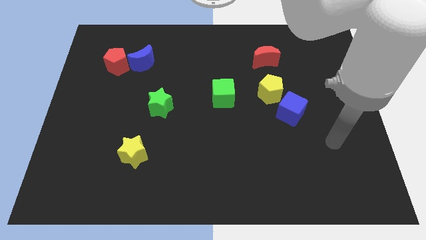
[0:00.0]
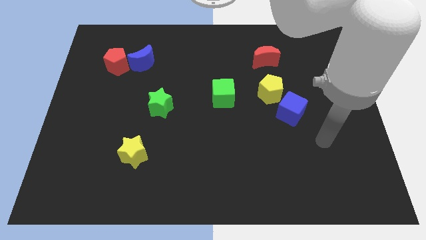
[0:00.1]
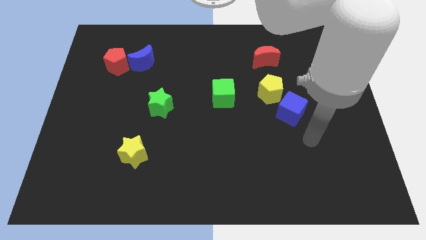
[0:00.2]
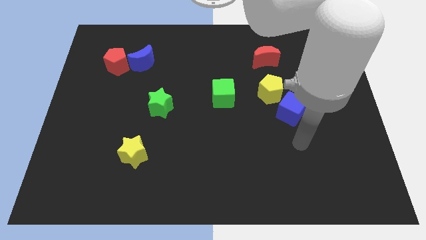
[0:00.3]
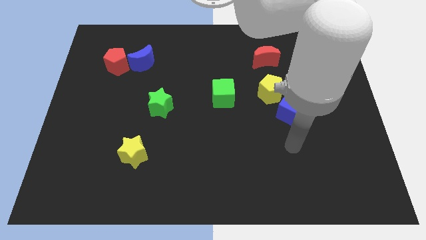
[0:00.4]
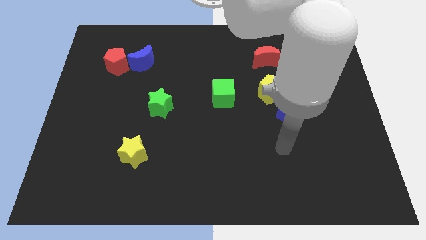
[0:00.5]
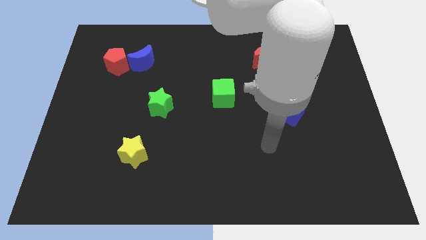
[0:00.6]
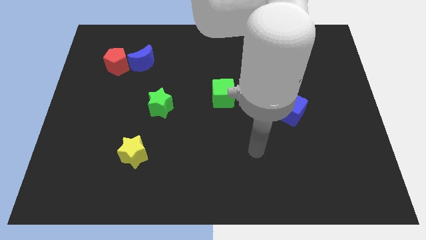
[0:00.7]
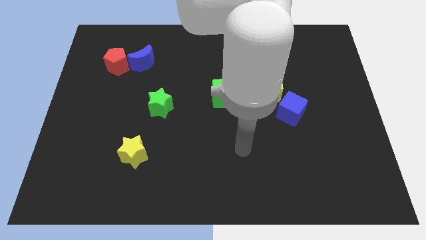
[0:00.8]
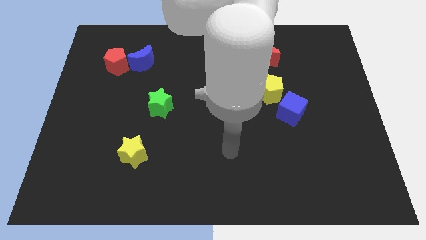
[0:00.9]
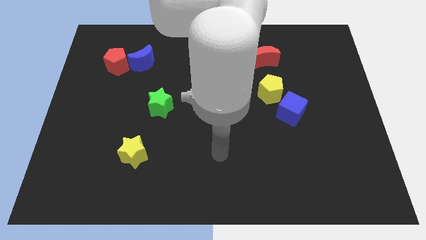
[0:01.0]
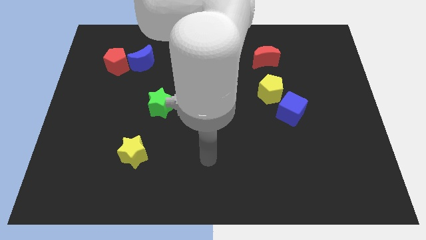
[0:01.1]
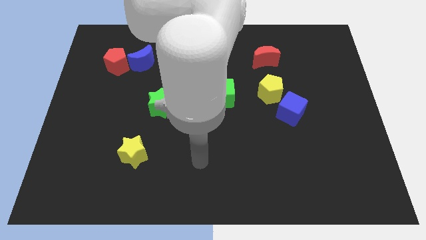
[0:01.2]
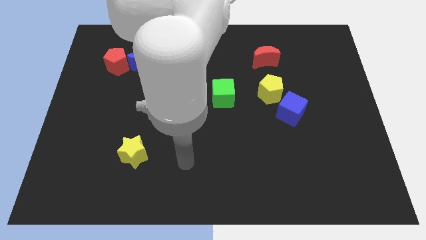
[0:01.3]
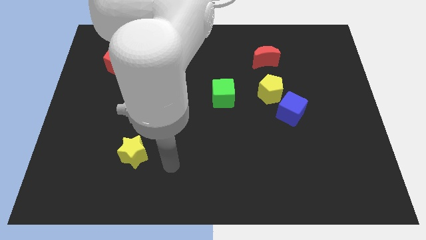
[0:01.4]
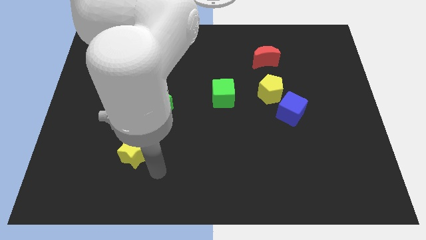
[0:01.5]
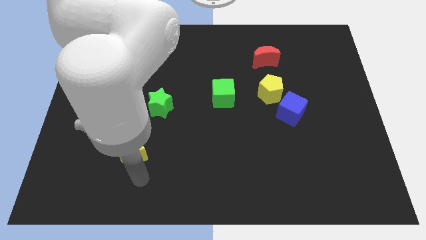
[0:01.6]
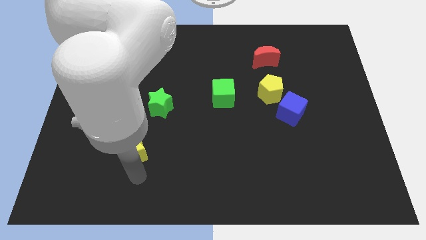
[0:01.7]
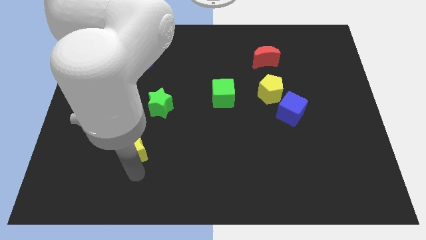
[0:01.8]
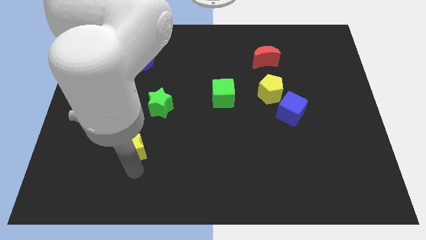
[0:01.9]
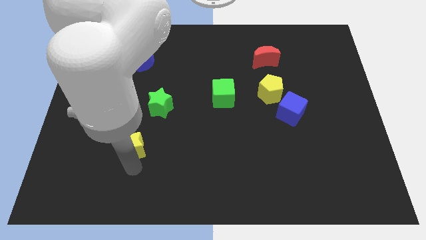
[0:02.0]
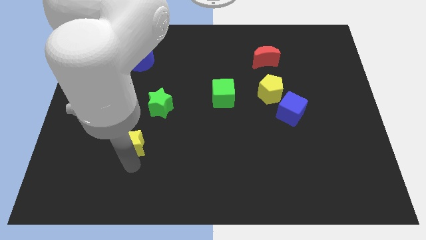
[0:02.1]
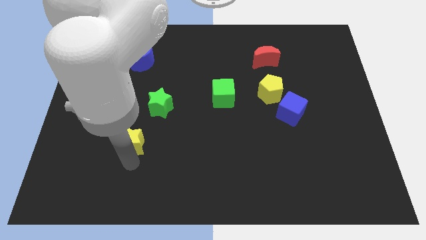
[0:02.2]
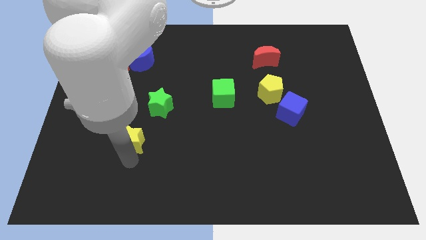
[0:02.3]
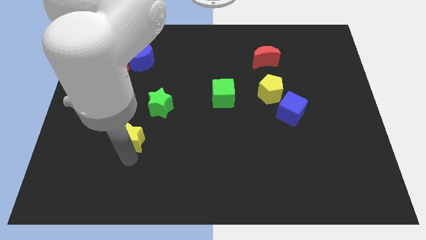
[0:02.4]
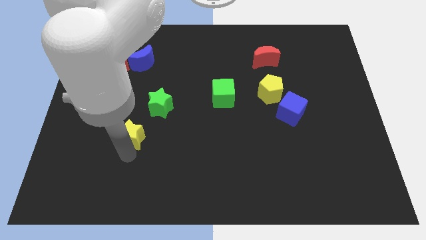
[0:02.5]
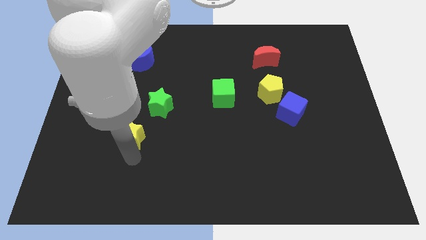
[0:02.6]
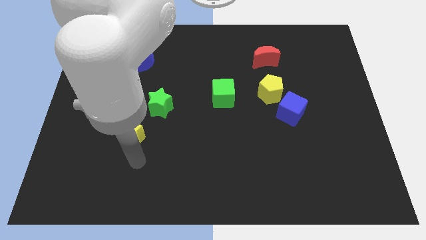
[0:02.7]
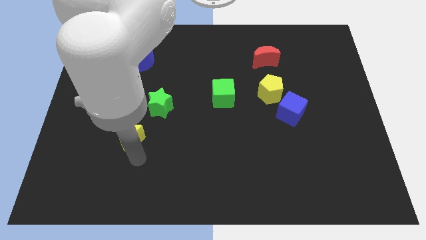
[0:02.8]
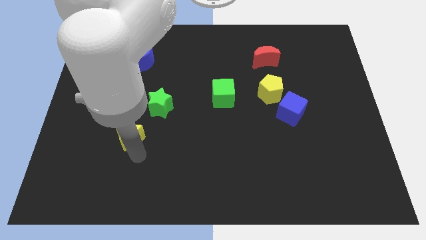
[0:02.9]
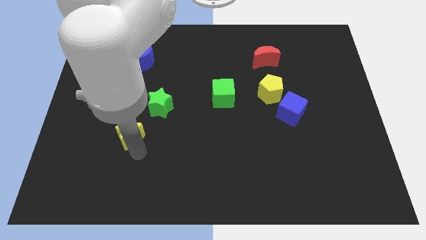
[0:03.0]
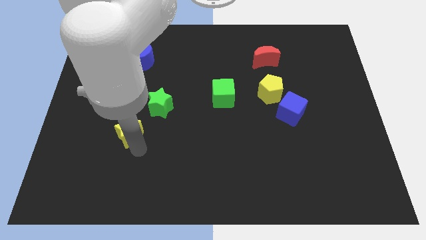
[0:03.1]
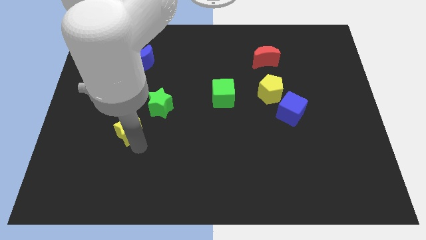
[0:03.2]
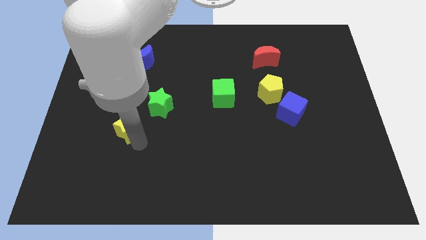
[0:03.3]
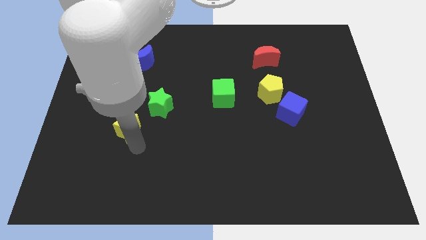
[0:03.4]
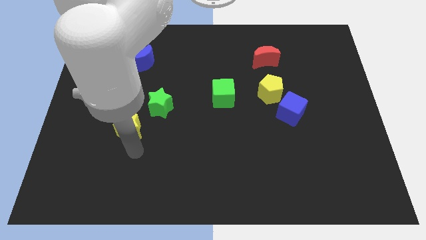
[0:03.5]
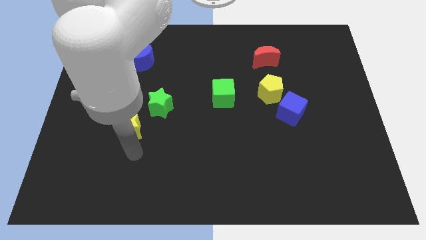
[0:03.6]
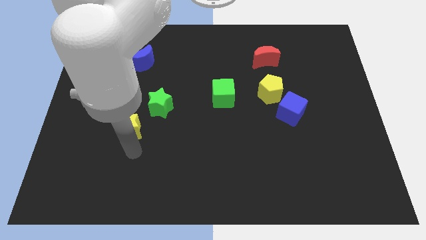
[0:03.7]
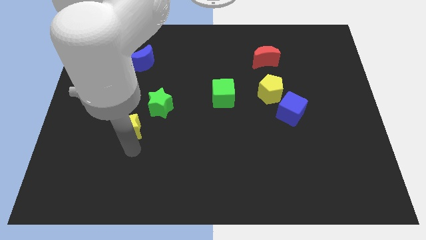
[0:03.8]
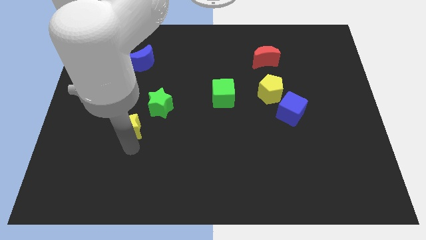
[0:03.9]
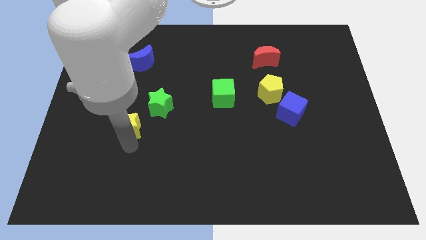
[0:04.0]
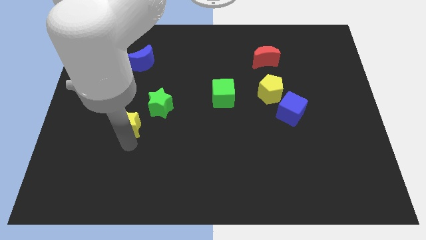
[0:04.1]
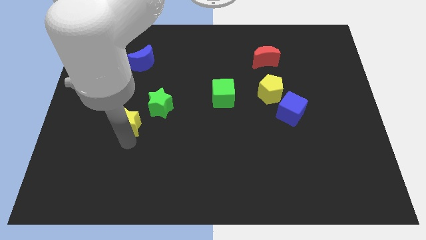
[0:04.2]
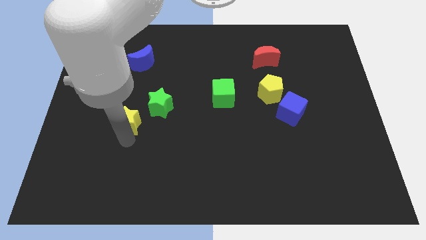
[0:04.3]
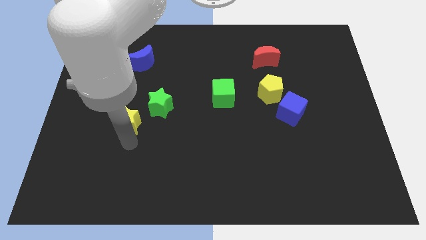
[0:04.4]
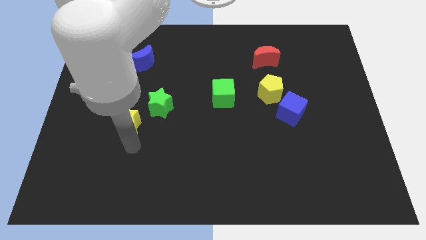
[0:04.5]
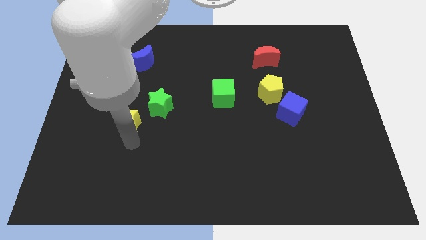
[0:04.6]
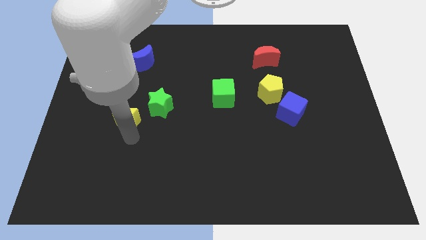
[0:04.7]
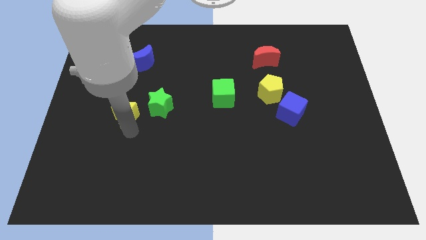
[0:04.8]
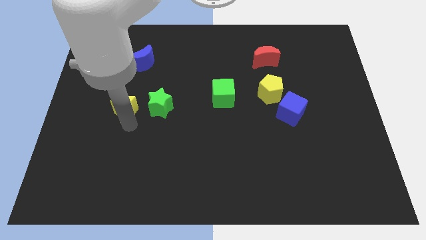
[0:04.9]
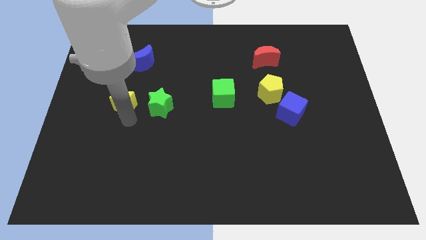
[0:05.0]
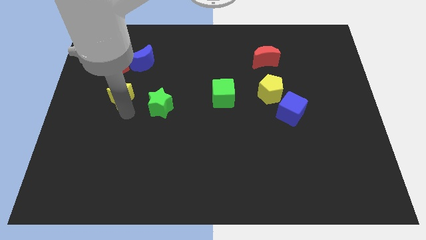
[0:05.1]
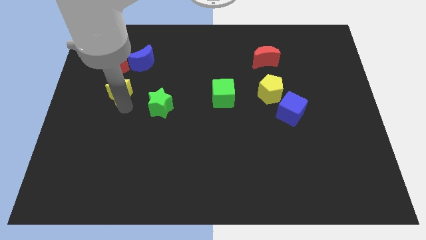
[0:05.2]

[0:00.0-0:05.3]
move the yellow star to the bottom left of the blue moon

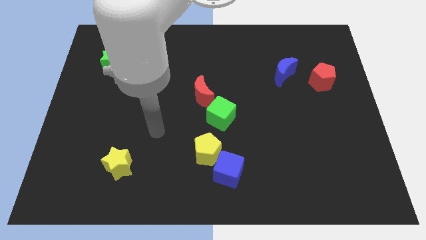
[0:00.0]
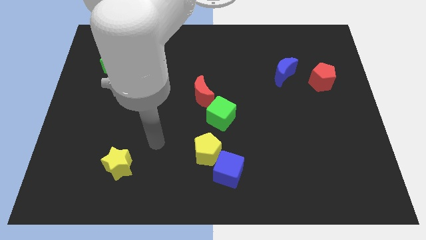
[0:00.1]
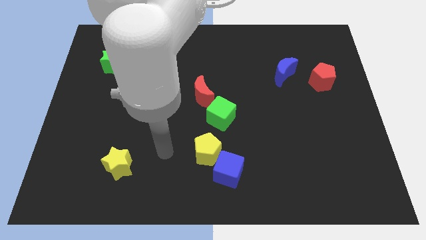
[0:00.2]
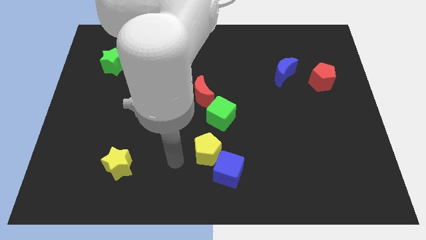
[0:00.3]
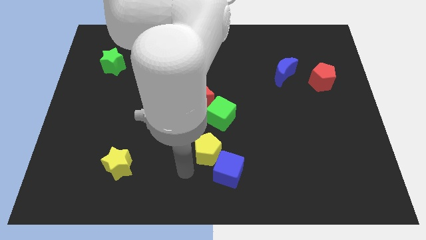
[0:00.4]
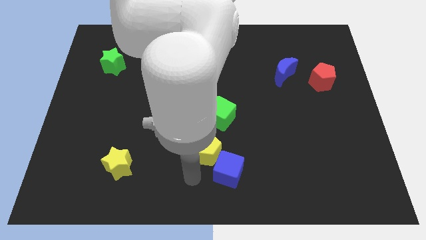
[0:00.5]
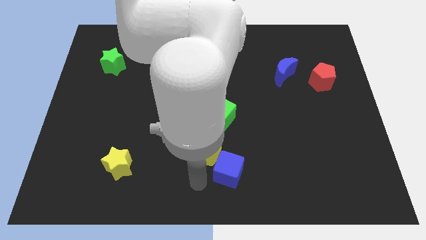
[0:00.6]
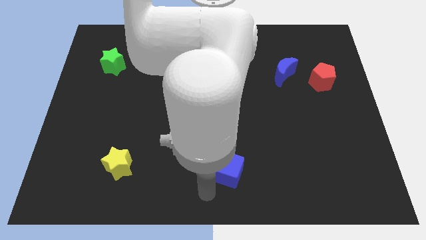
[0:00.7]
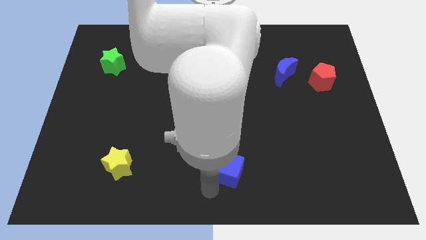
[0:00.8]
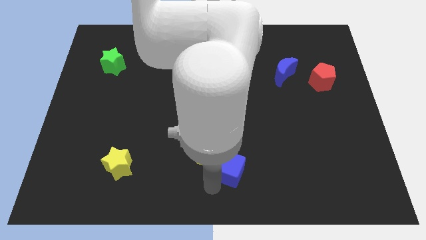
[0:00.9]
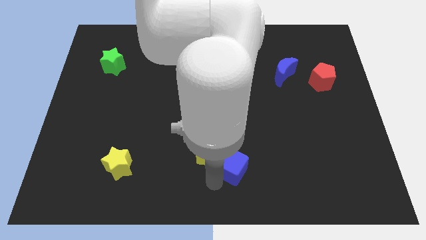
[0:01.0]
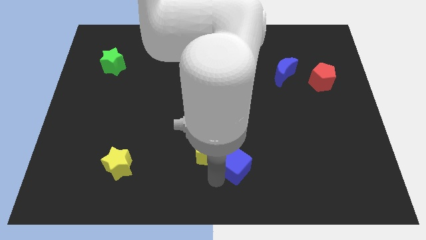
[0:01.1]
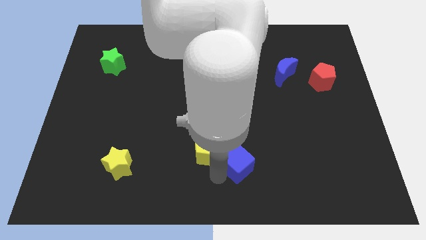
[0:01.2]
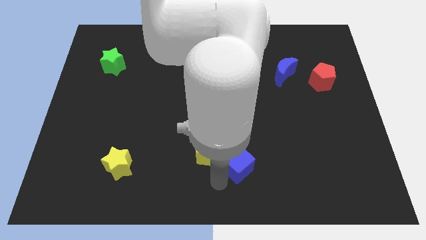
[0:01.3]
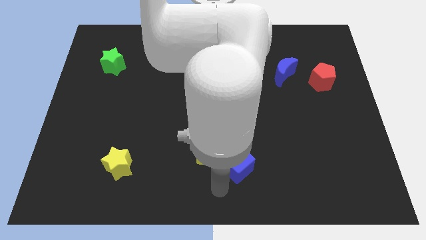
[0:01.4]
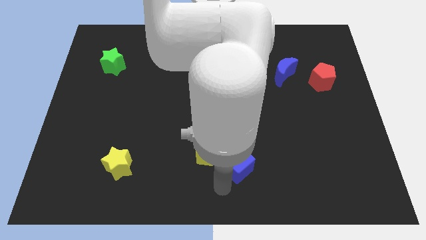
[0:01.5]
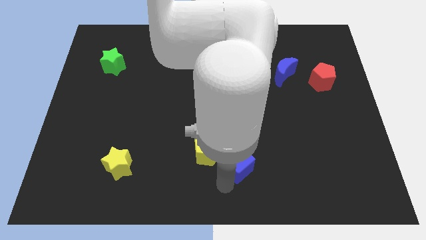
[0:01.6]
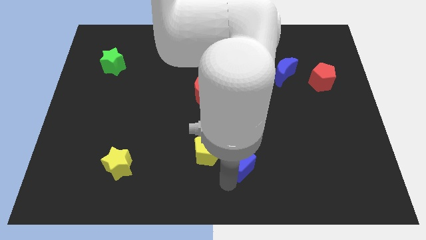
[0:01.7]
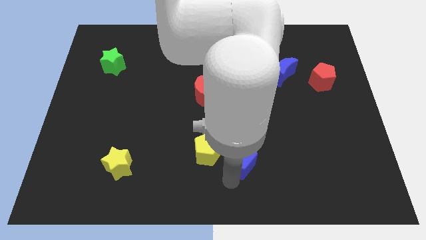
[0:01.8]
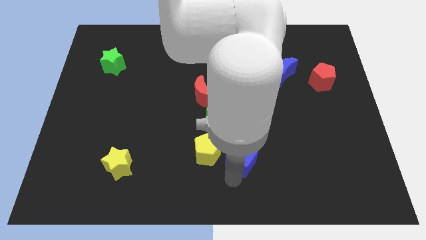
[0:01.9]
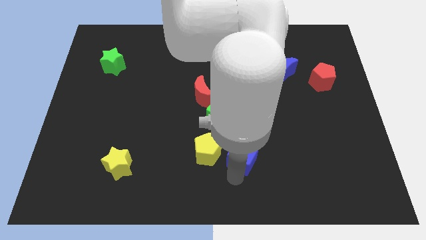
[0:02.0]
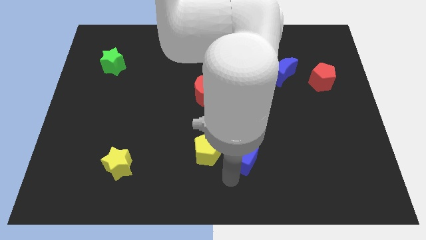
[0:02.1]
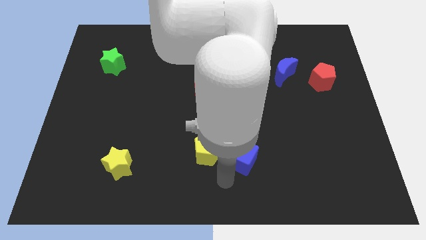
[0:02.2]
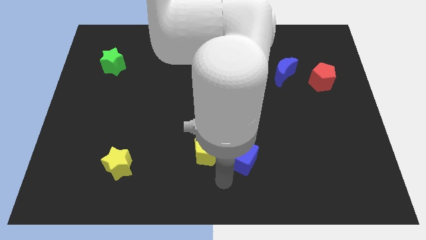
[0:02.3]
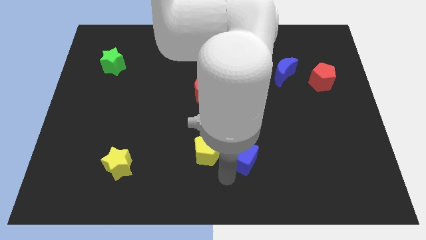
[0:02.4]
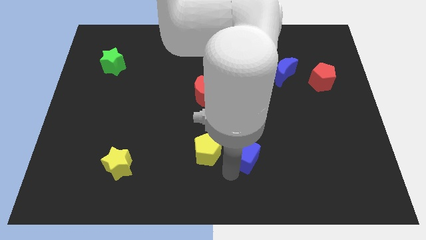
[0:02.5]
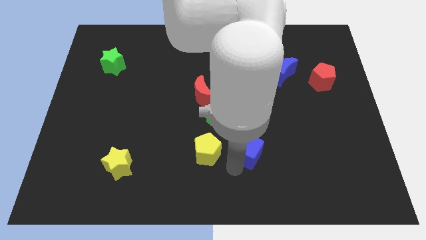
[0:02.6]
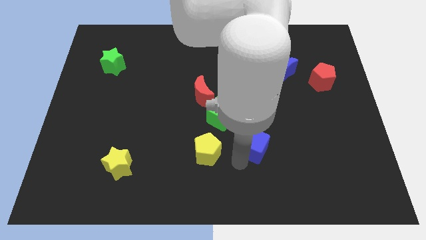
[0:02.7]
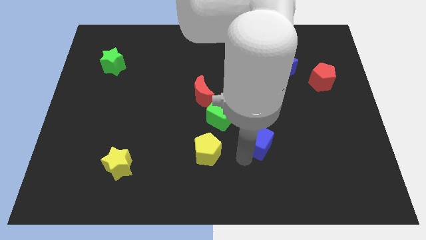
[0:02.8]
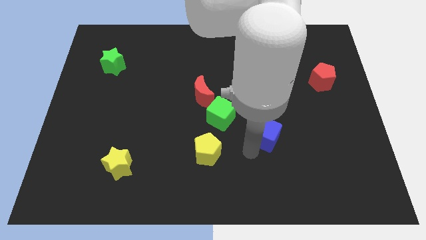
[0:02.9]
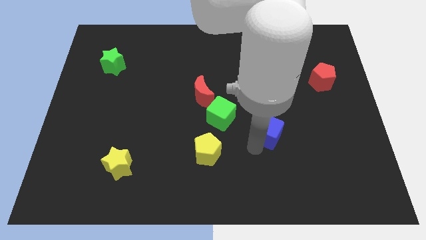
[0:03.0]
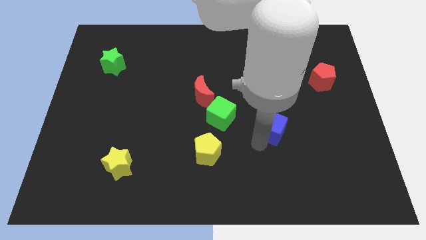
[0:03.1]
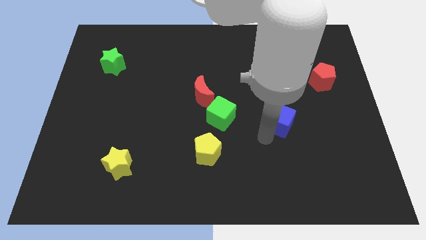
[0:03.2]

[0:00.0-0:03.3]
push the blue cube to the bottom side of the blue moon
